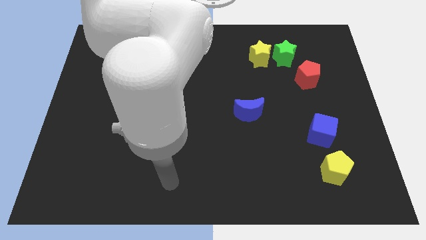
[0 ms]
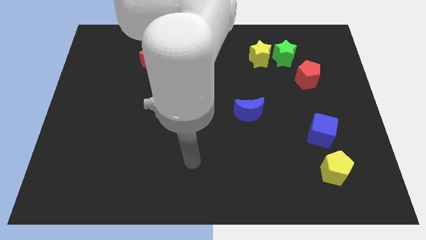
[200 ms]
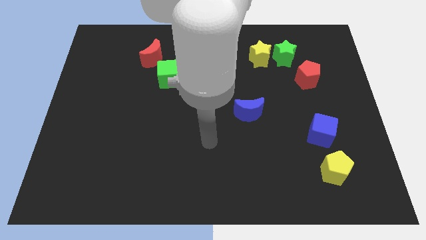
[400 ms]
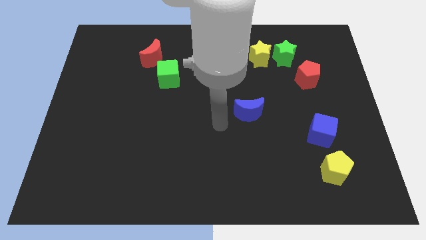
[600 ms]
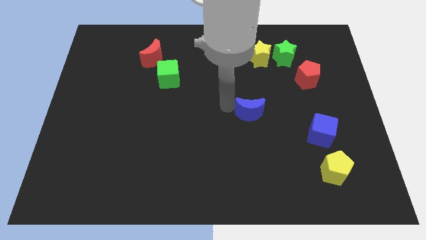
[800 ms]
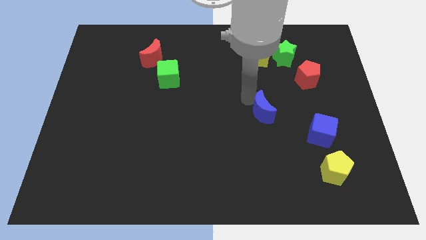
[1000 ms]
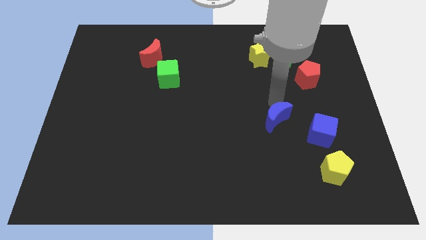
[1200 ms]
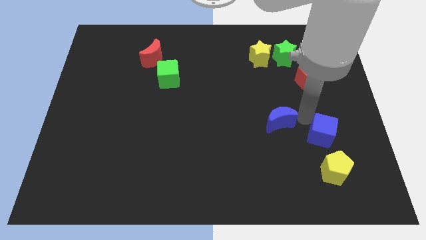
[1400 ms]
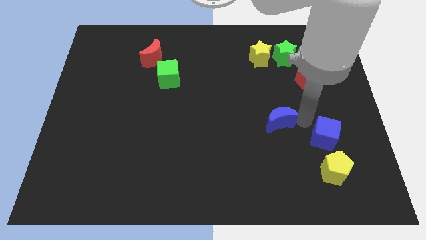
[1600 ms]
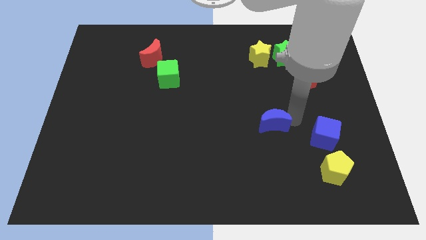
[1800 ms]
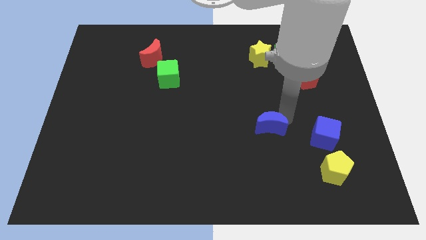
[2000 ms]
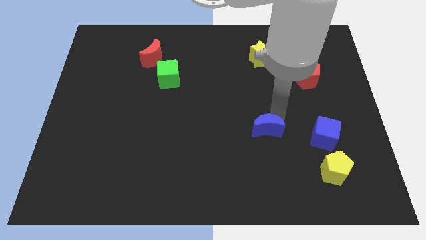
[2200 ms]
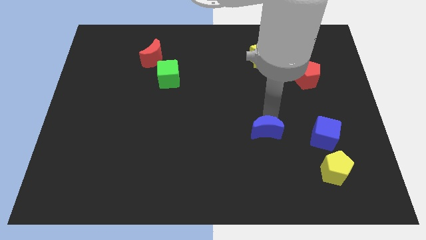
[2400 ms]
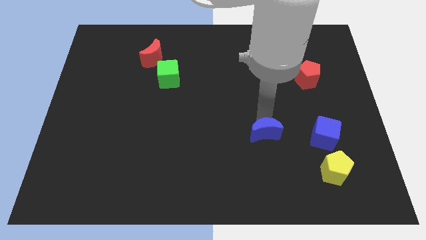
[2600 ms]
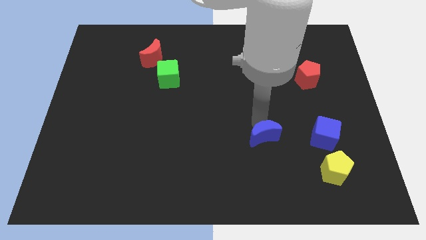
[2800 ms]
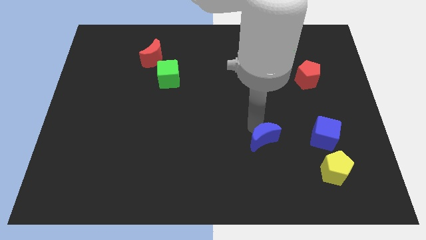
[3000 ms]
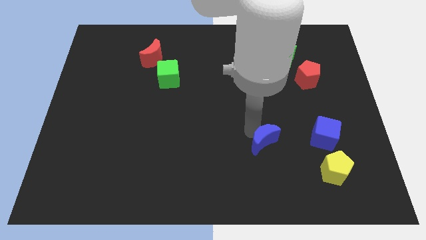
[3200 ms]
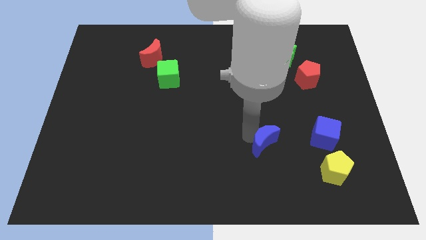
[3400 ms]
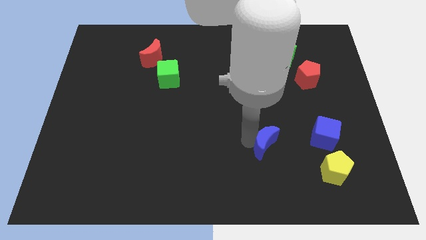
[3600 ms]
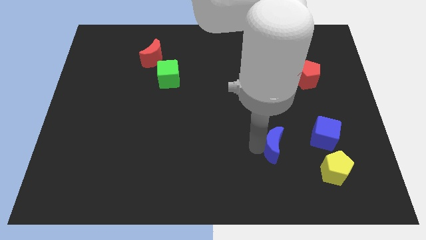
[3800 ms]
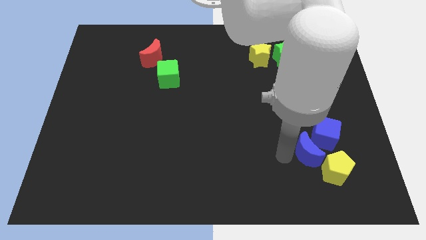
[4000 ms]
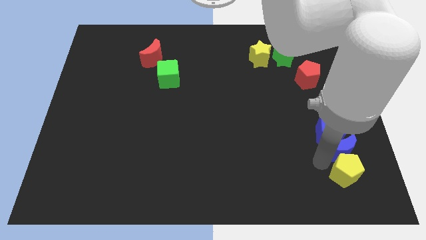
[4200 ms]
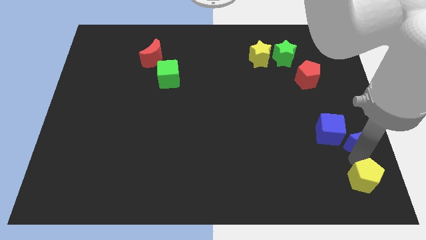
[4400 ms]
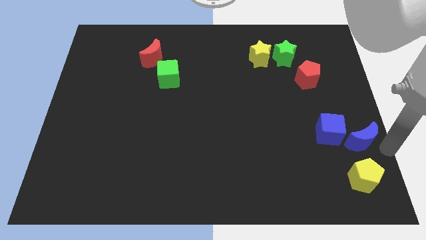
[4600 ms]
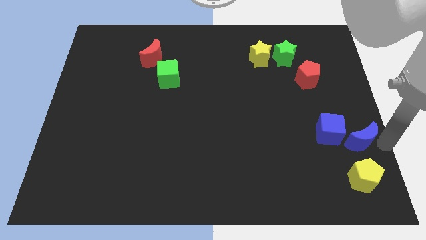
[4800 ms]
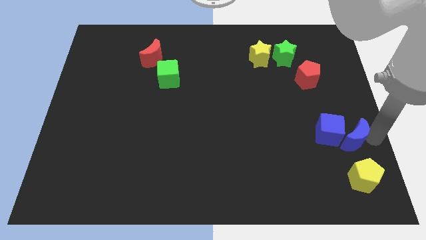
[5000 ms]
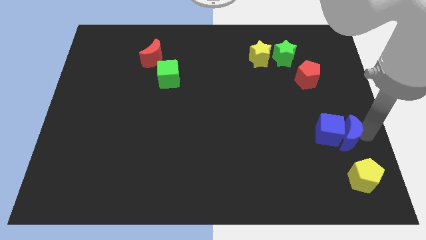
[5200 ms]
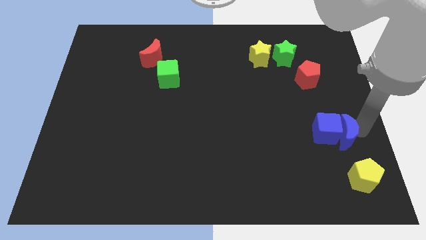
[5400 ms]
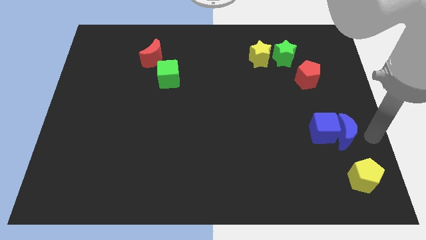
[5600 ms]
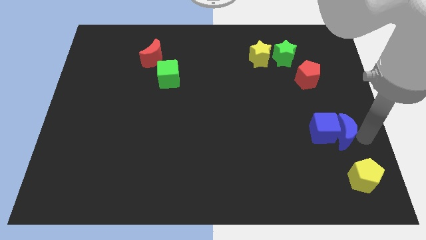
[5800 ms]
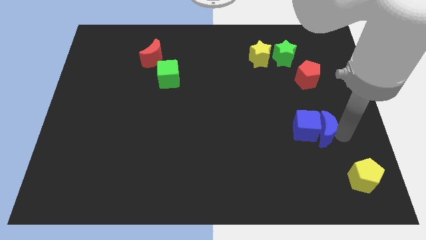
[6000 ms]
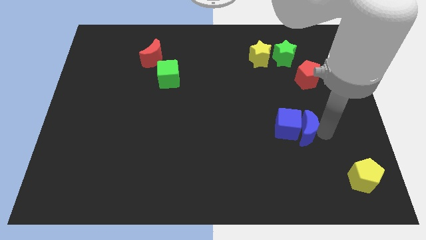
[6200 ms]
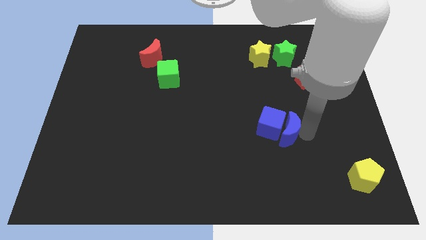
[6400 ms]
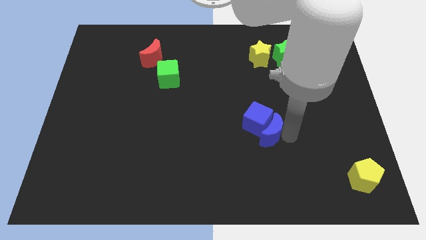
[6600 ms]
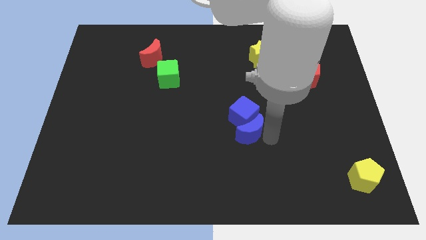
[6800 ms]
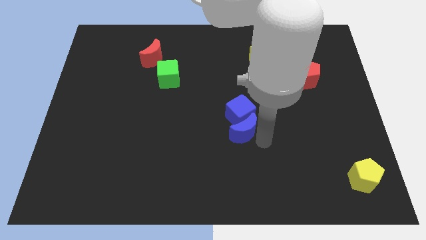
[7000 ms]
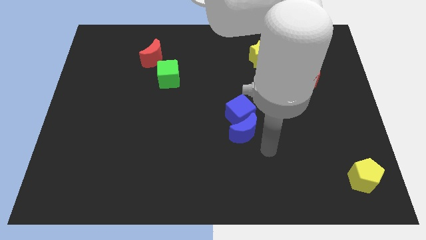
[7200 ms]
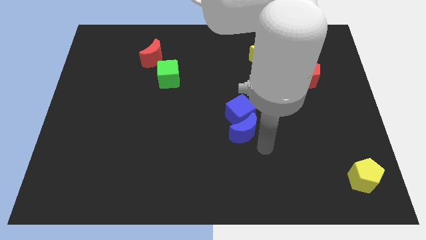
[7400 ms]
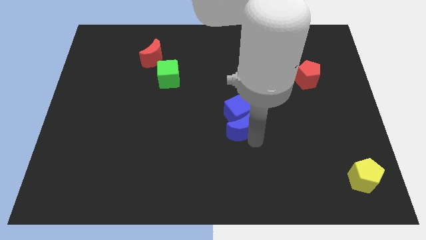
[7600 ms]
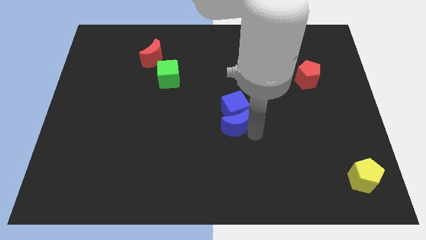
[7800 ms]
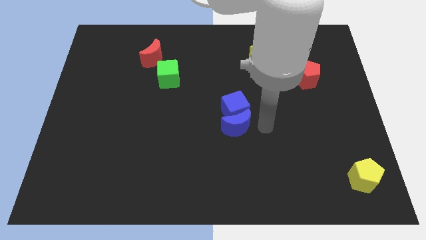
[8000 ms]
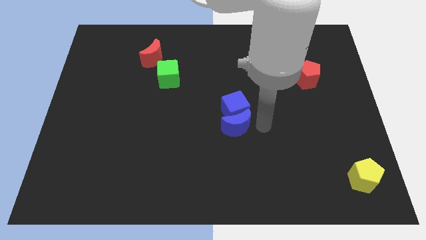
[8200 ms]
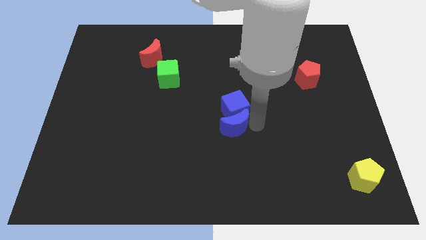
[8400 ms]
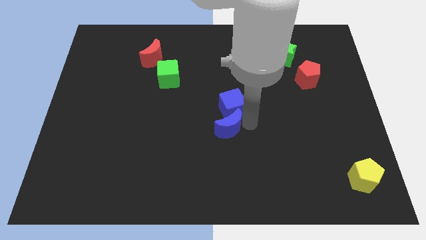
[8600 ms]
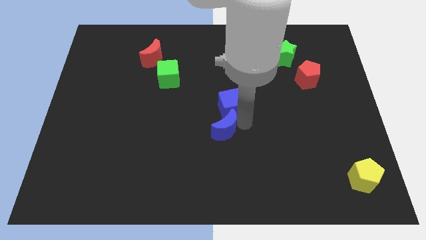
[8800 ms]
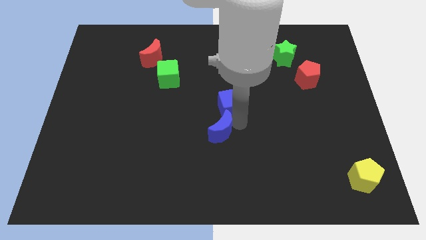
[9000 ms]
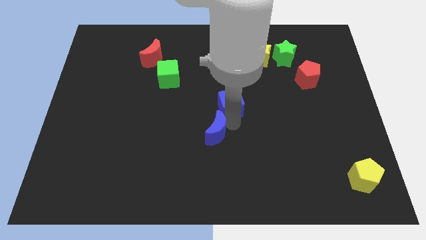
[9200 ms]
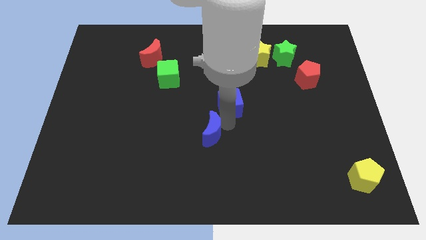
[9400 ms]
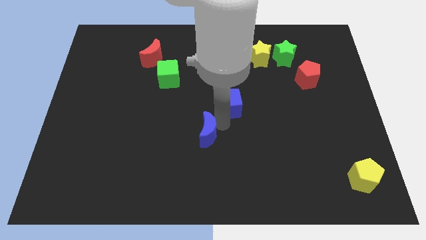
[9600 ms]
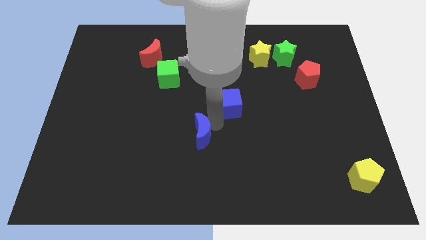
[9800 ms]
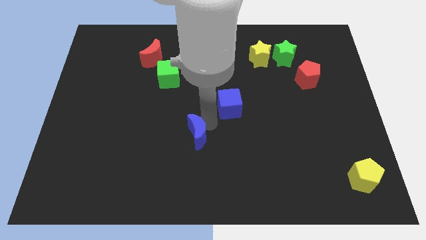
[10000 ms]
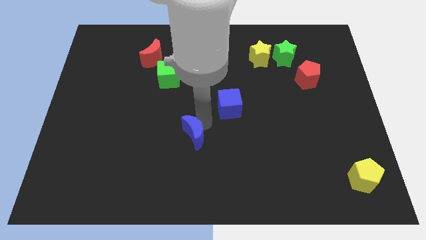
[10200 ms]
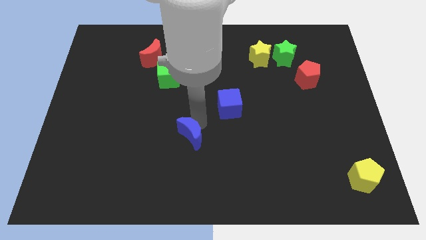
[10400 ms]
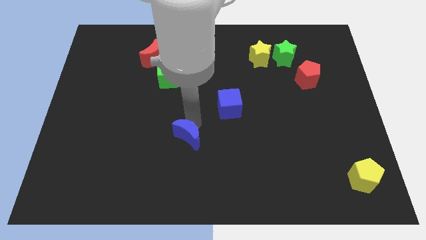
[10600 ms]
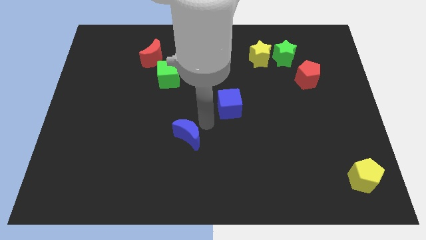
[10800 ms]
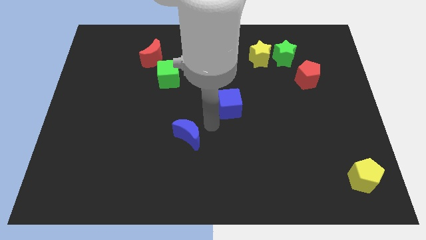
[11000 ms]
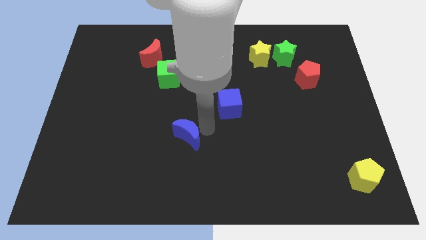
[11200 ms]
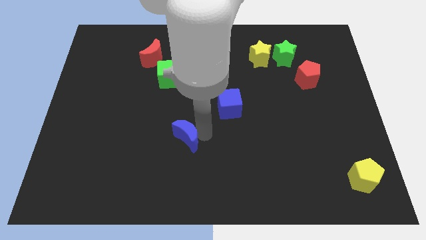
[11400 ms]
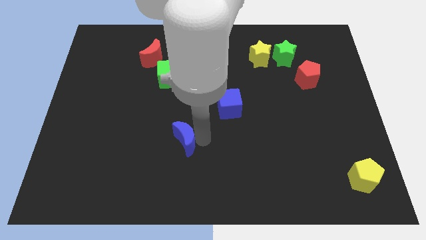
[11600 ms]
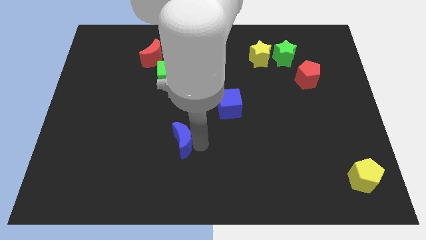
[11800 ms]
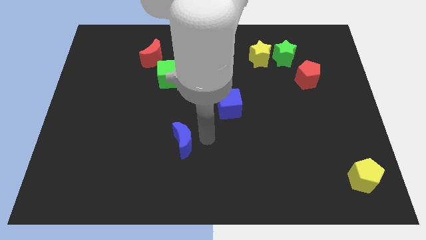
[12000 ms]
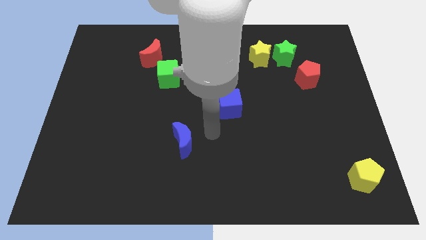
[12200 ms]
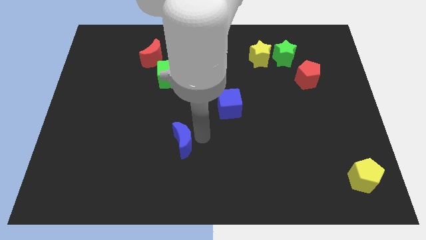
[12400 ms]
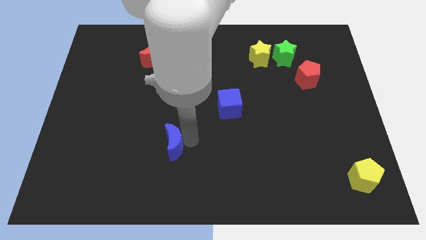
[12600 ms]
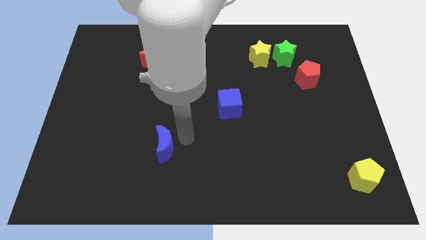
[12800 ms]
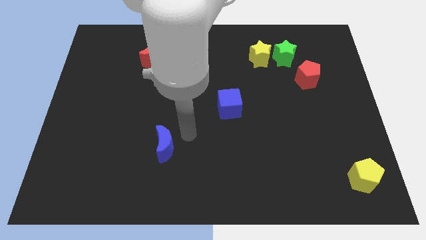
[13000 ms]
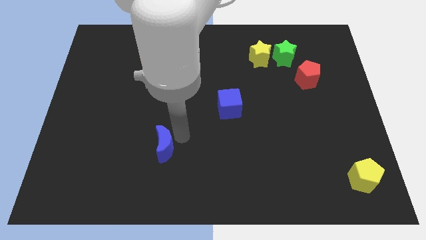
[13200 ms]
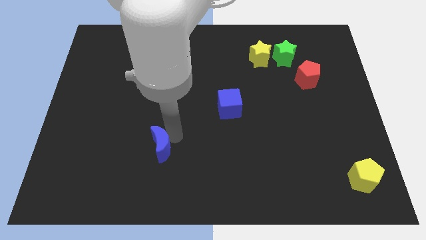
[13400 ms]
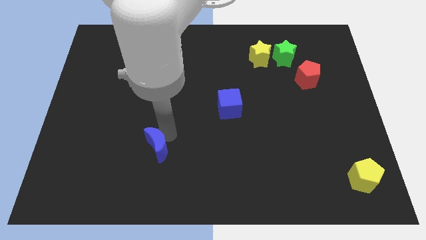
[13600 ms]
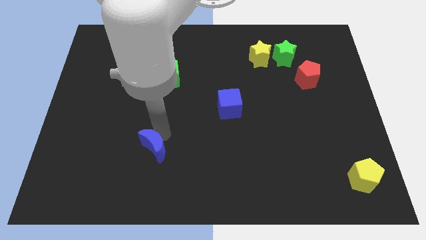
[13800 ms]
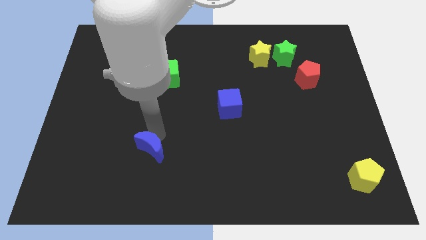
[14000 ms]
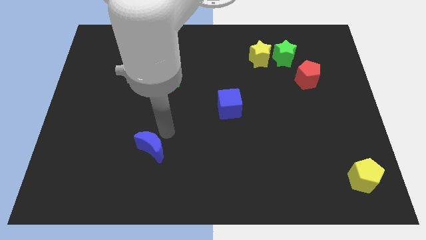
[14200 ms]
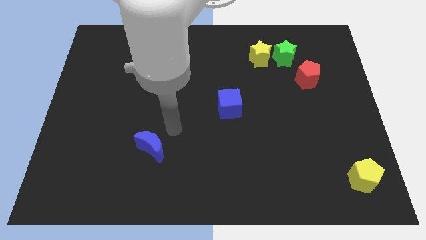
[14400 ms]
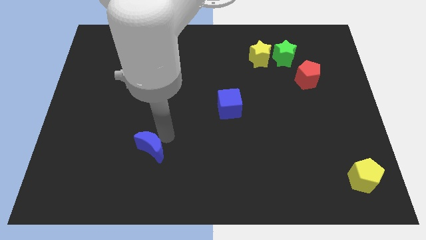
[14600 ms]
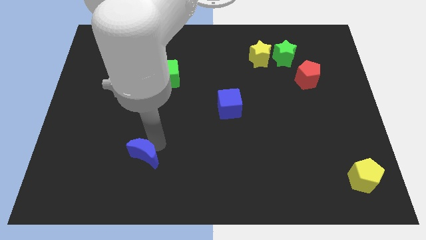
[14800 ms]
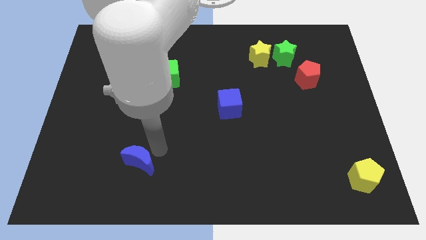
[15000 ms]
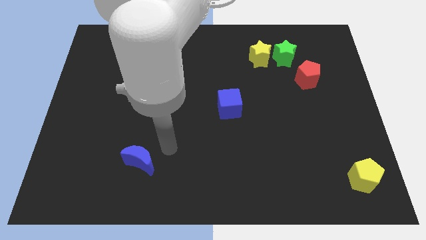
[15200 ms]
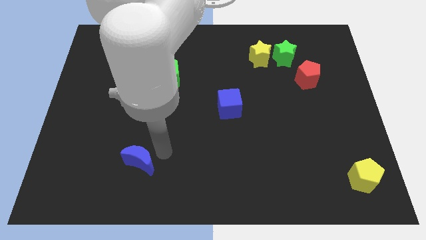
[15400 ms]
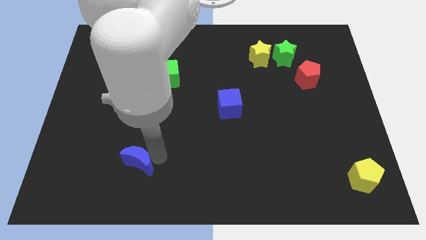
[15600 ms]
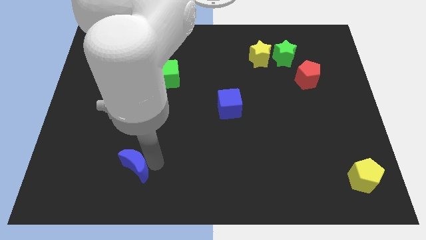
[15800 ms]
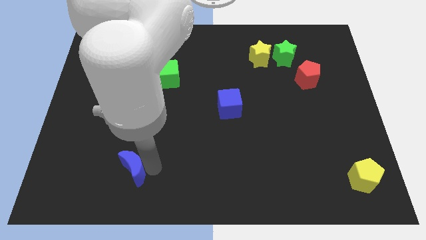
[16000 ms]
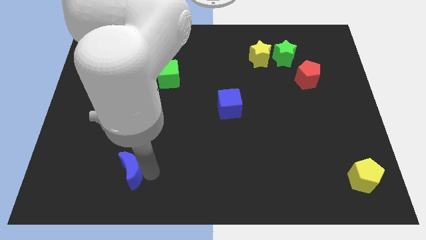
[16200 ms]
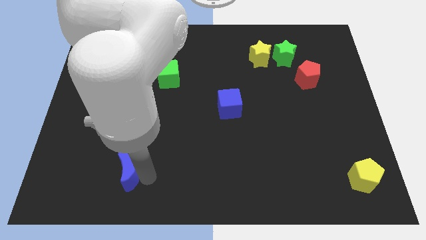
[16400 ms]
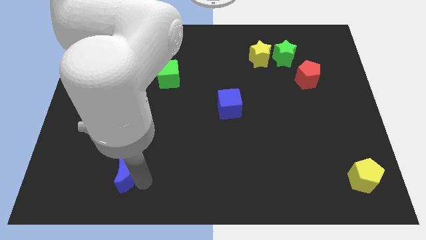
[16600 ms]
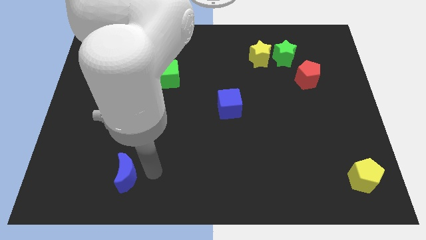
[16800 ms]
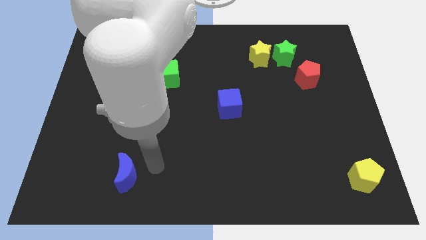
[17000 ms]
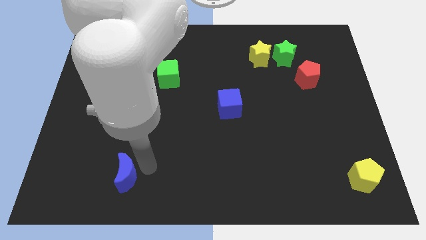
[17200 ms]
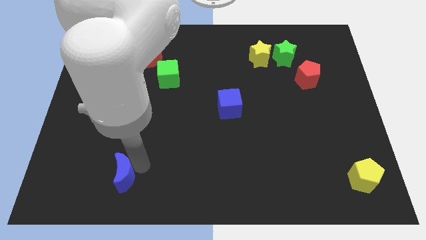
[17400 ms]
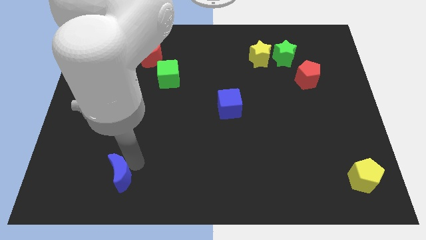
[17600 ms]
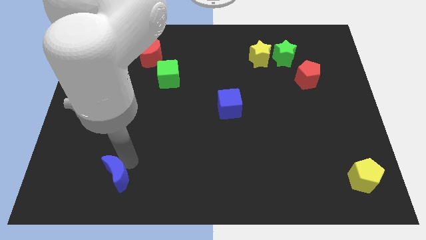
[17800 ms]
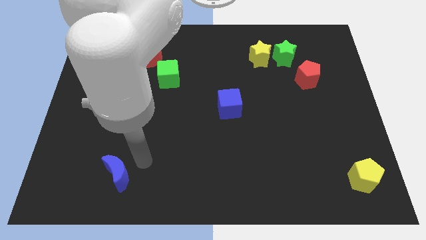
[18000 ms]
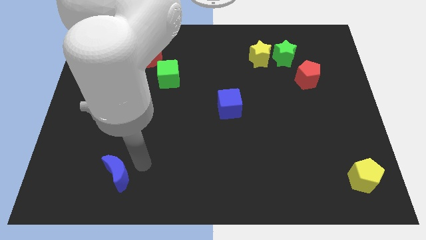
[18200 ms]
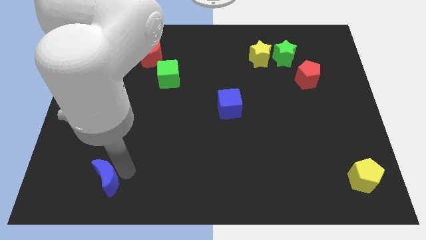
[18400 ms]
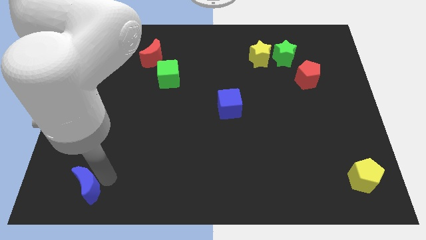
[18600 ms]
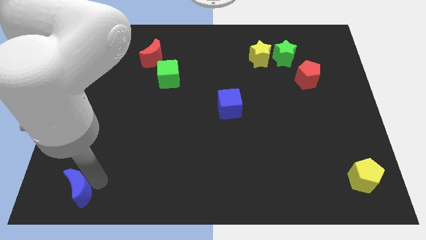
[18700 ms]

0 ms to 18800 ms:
slide the blue moon to the lower left corner
